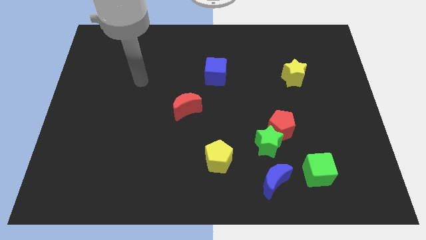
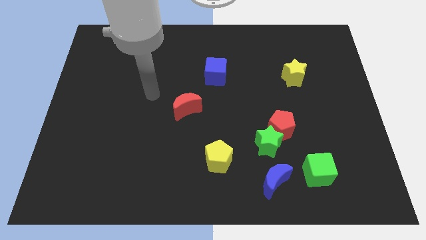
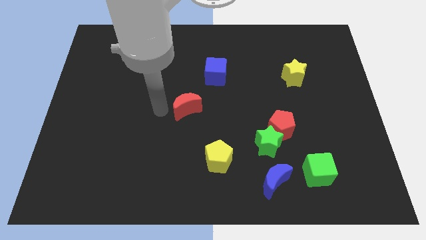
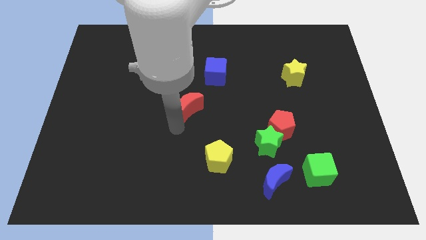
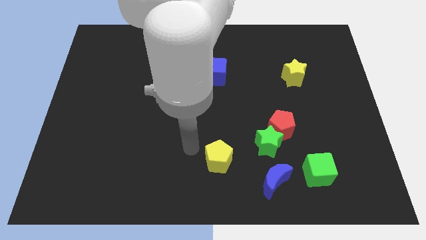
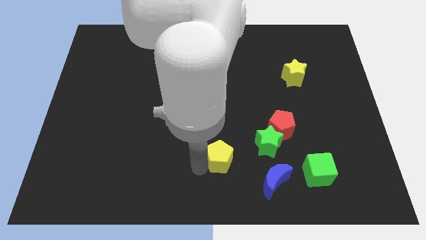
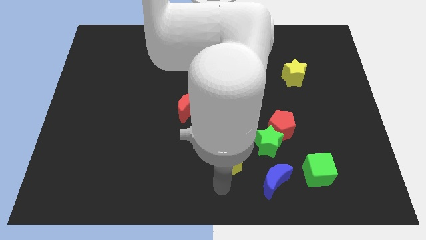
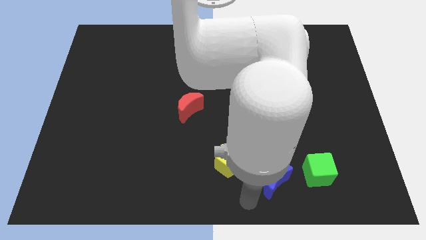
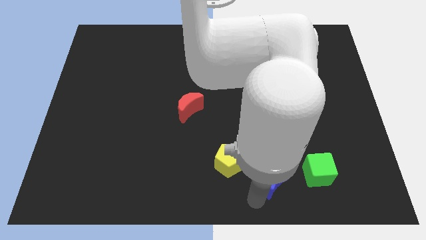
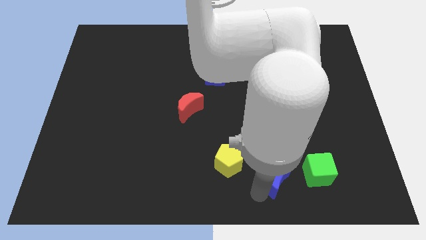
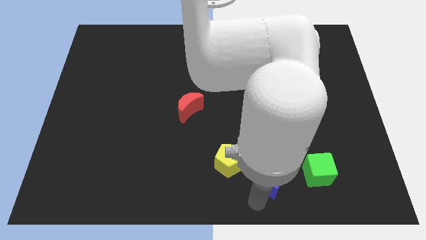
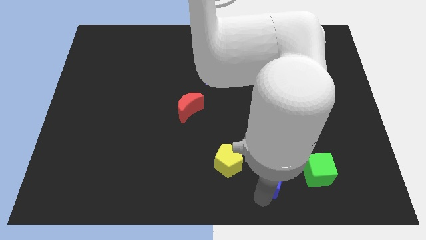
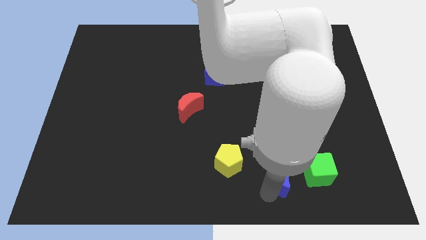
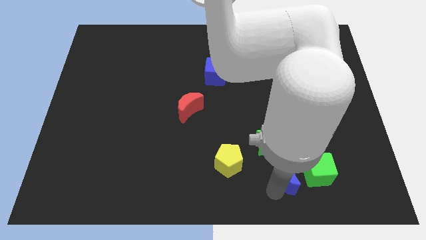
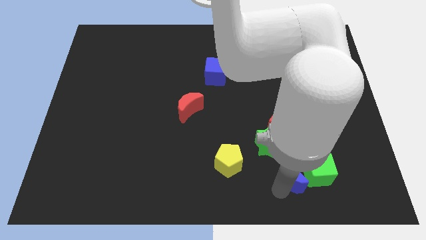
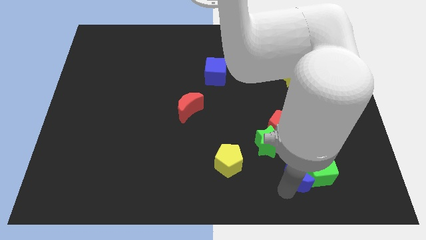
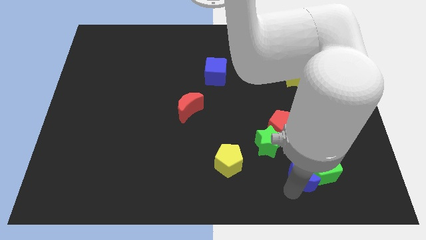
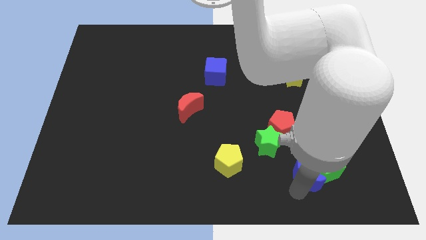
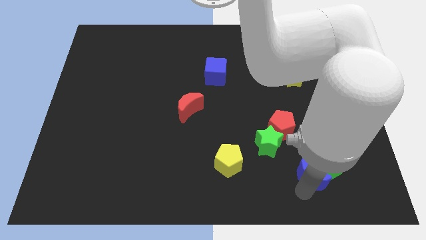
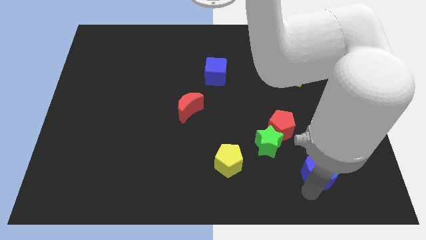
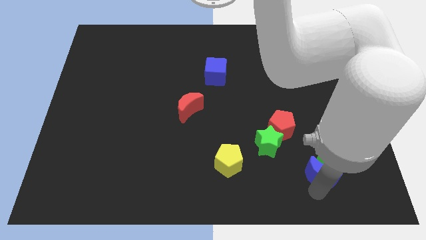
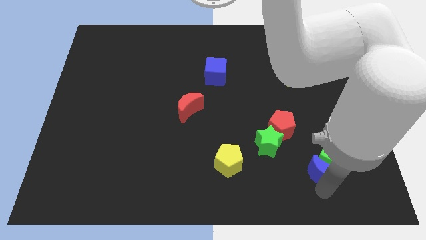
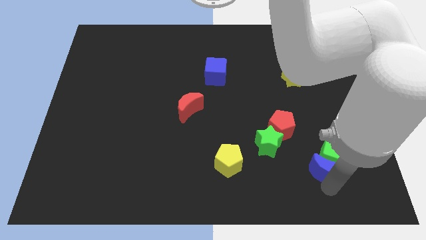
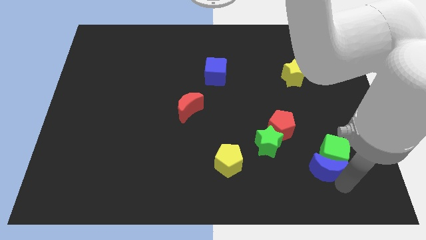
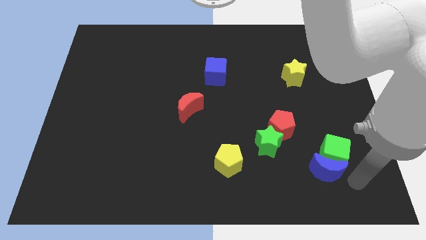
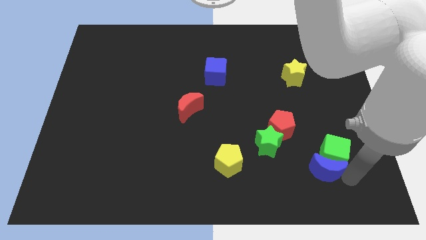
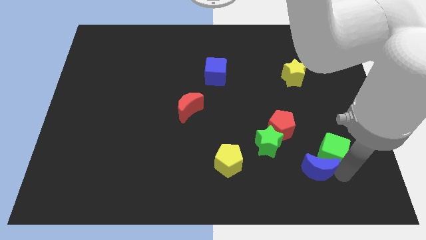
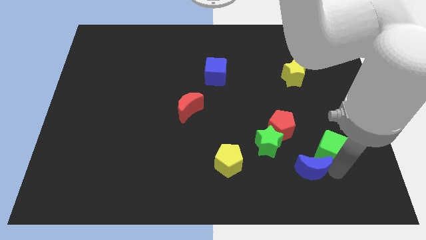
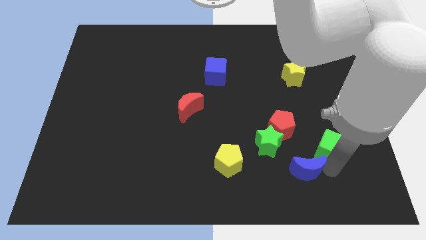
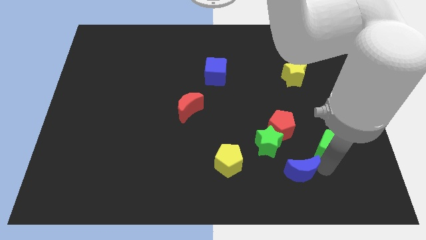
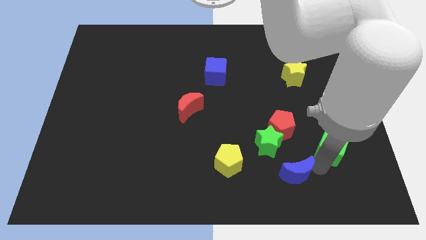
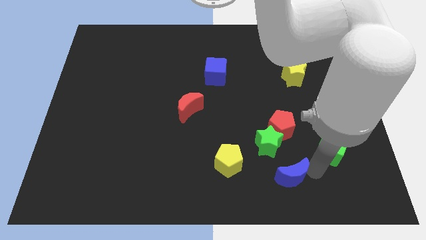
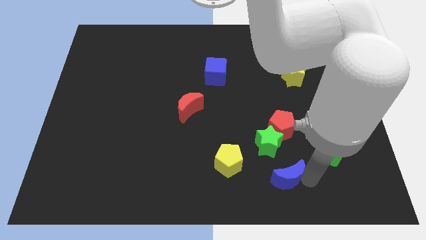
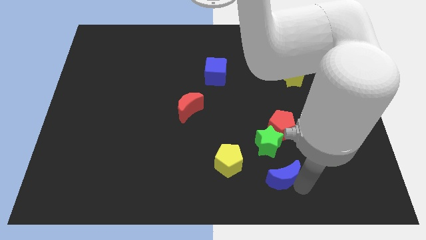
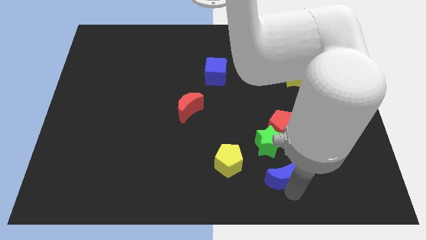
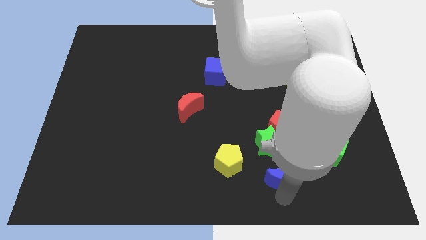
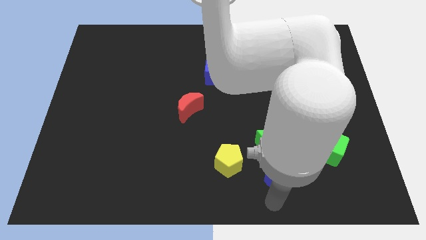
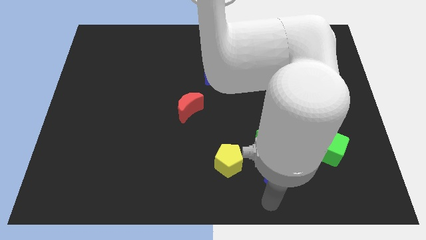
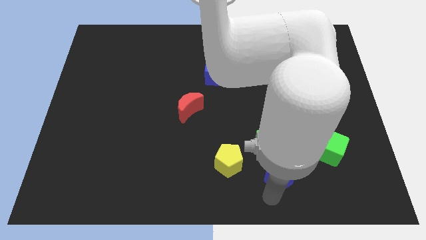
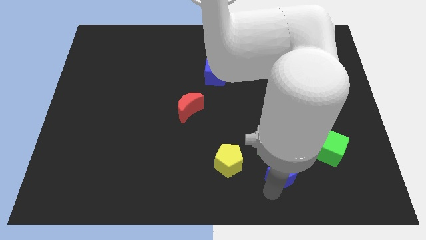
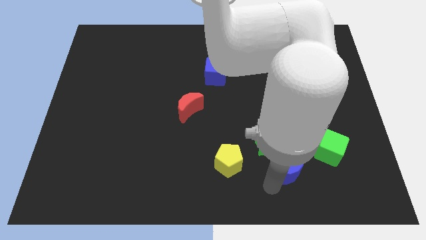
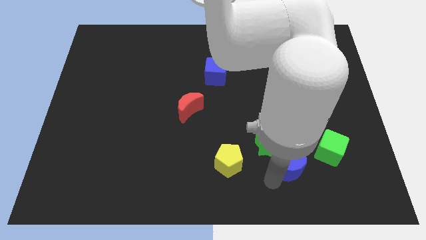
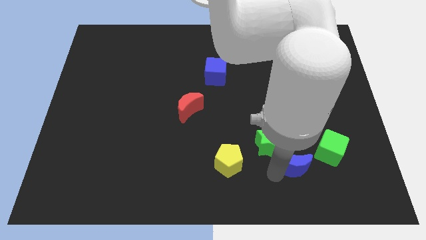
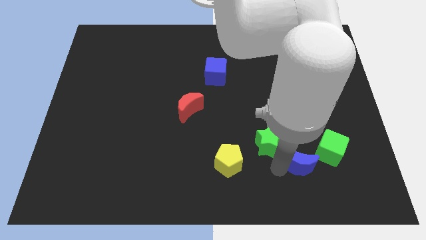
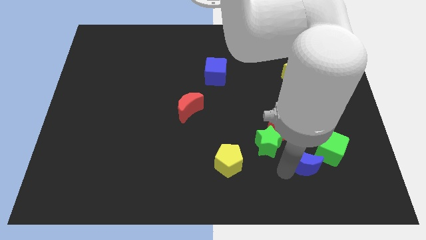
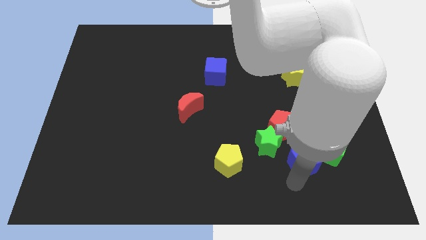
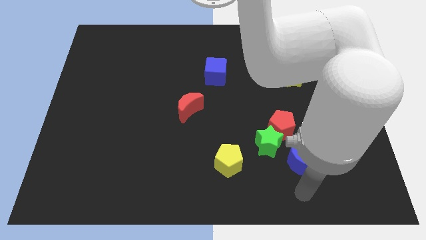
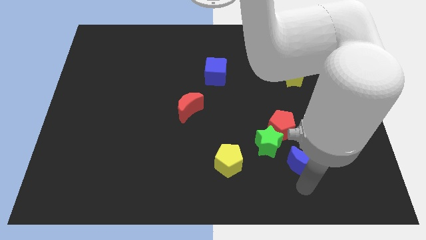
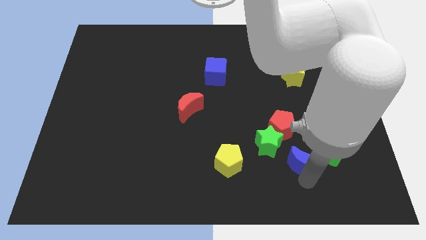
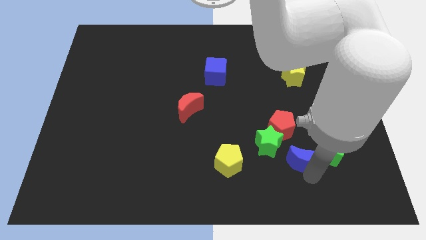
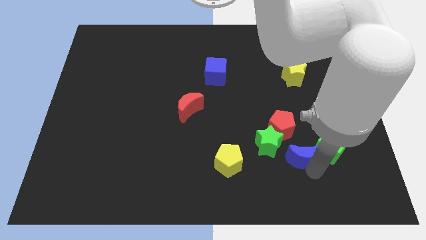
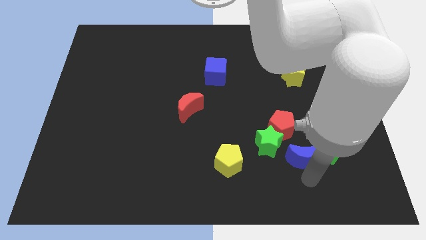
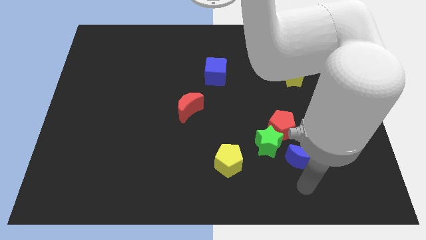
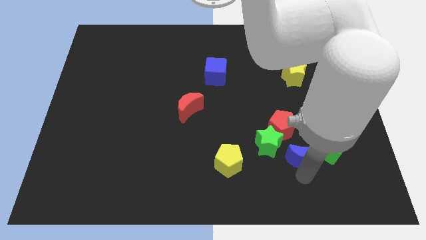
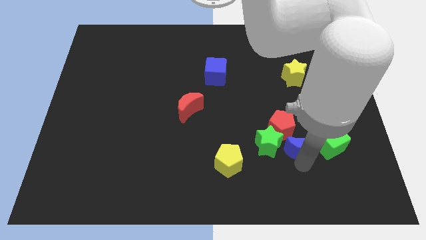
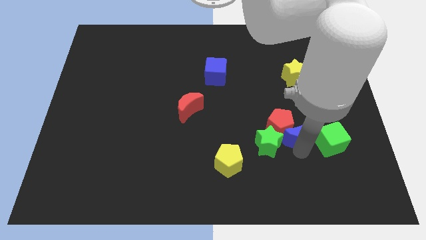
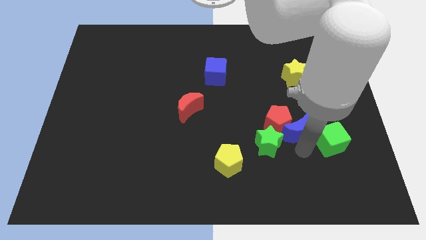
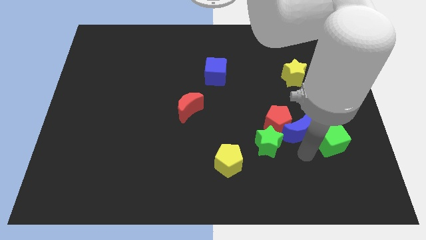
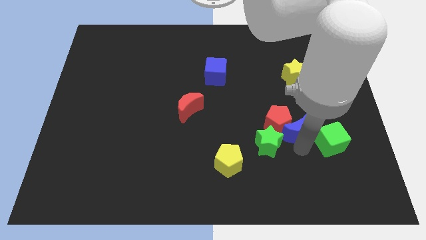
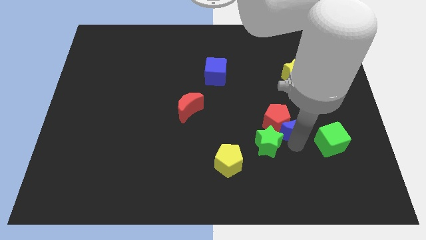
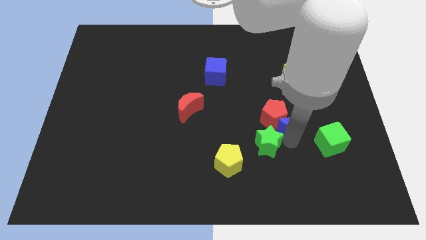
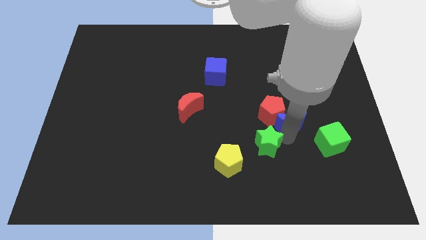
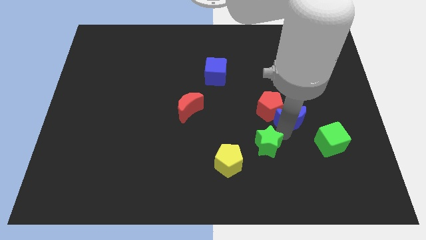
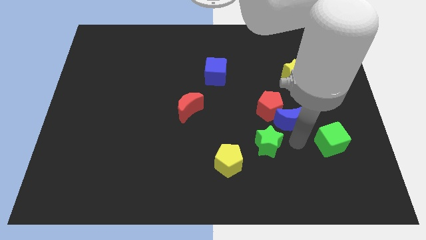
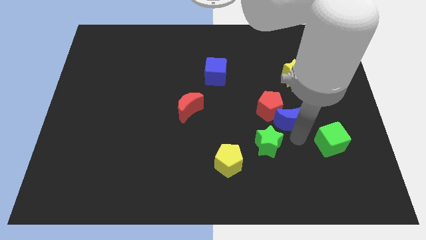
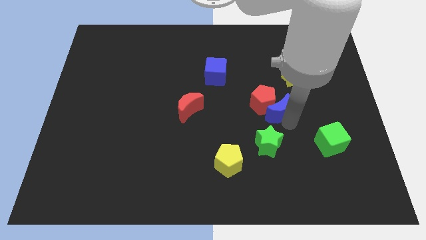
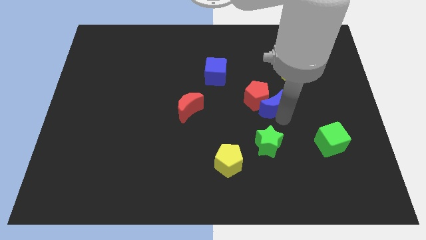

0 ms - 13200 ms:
push the blue moon diagonally down and to the left of the yellow star

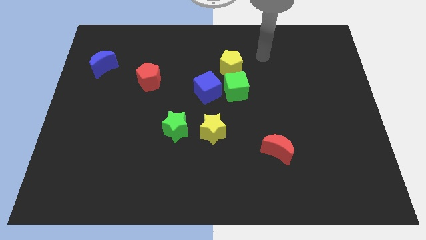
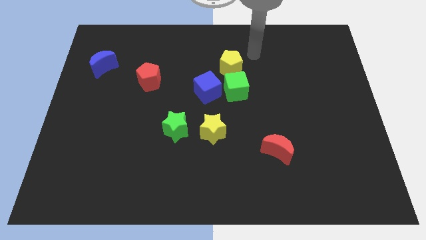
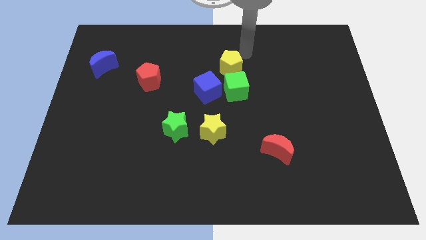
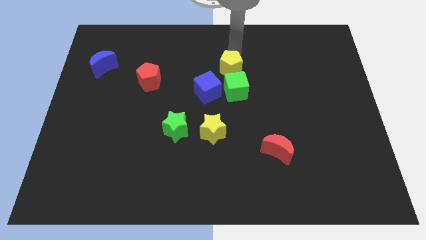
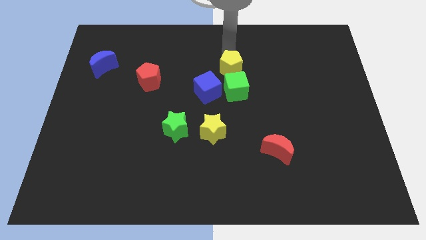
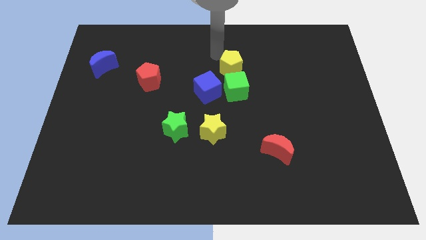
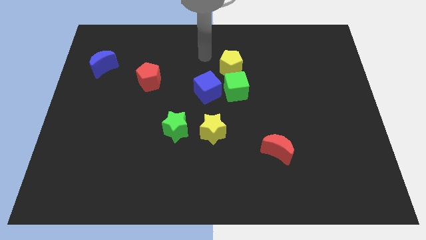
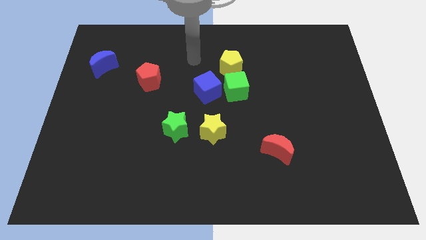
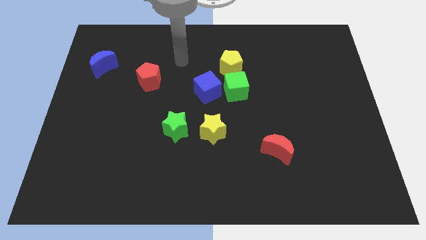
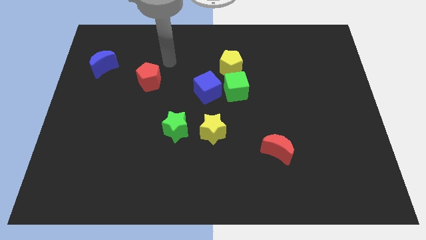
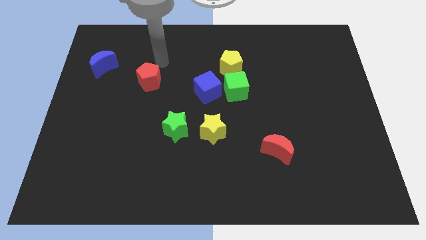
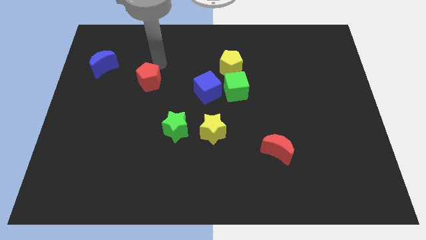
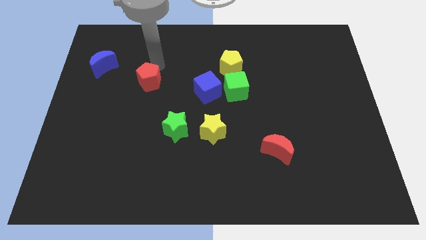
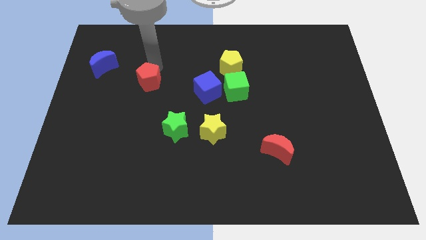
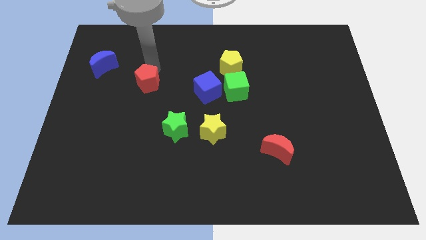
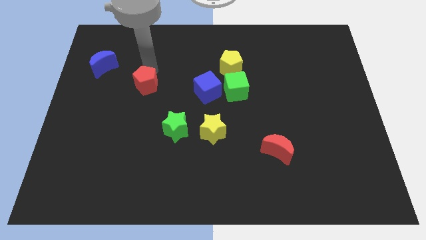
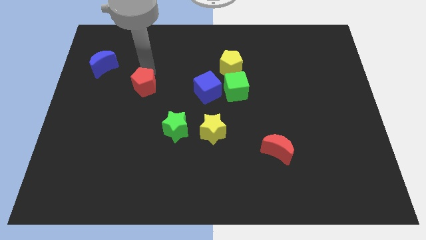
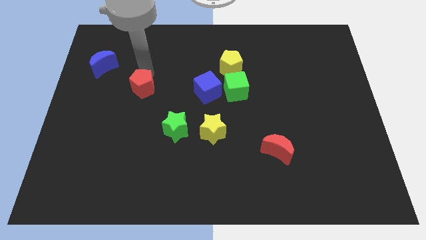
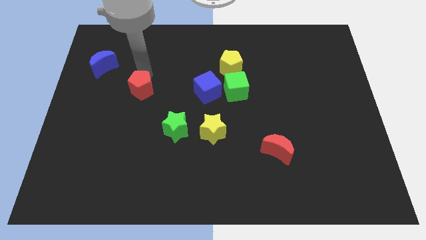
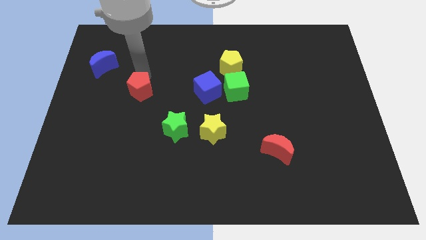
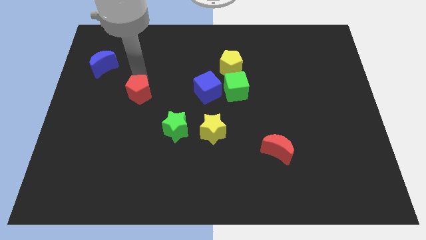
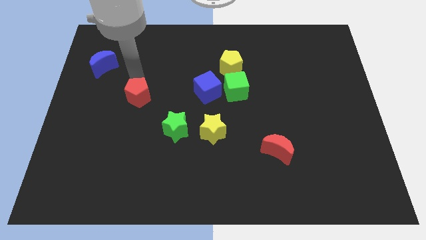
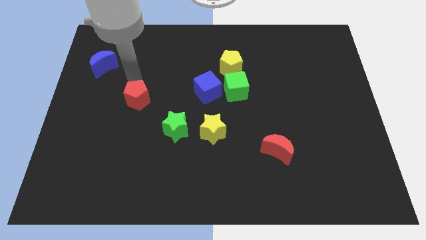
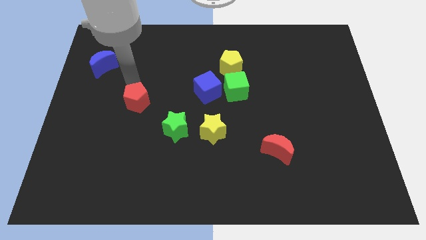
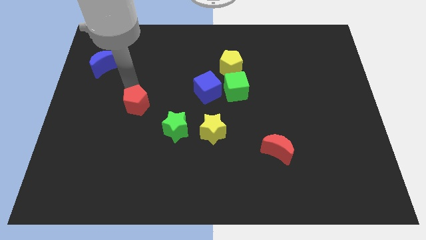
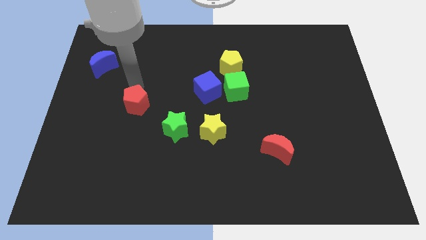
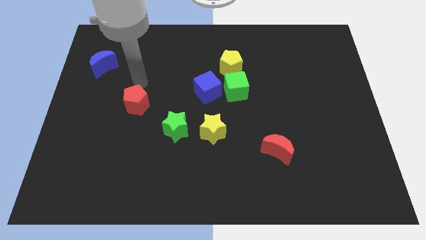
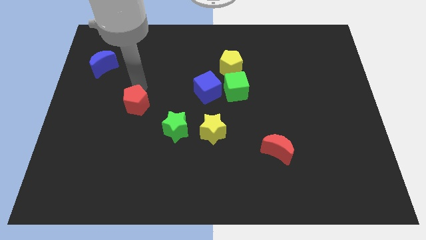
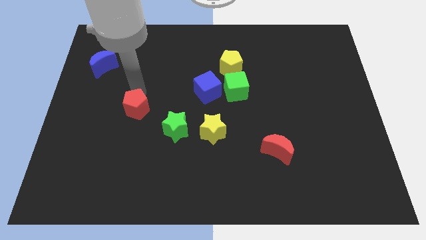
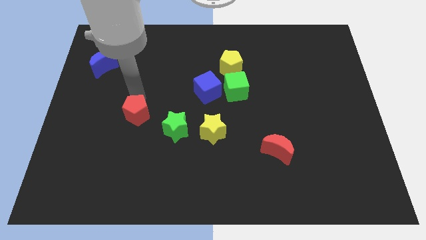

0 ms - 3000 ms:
push the red pentagon to the left side of the green star
